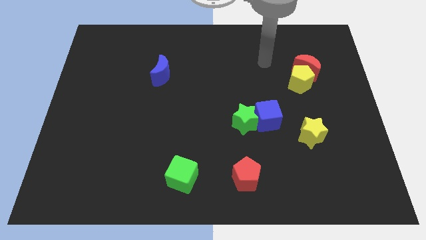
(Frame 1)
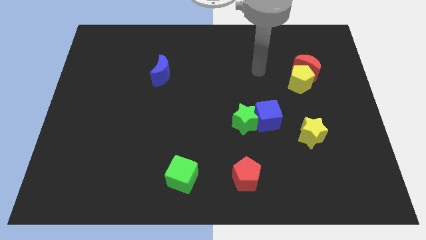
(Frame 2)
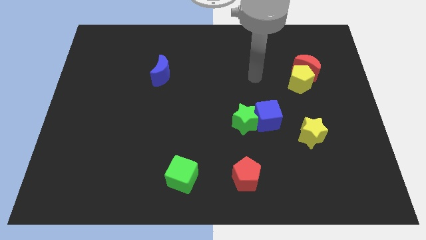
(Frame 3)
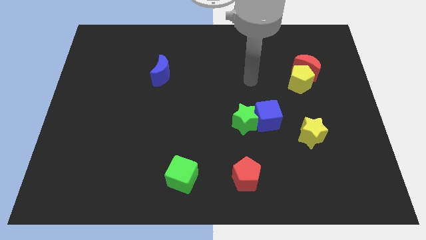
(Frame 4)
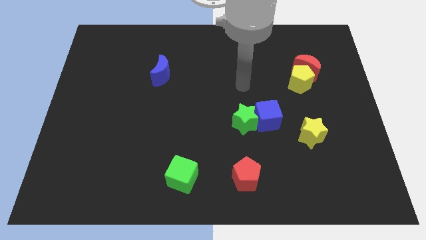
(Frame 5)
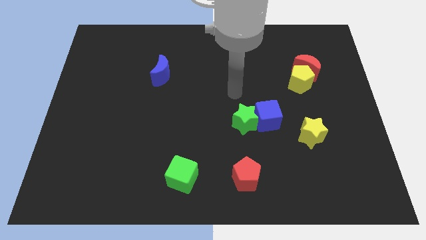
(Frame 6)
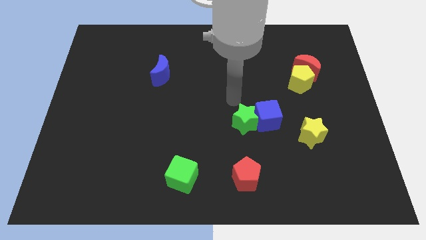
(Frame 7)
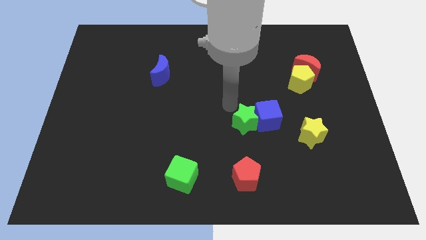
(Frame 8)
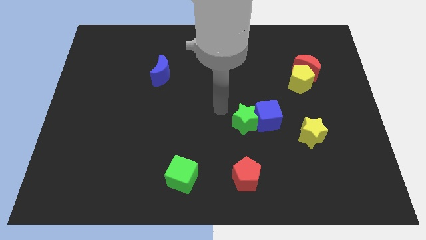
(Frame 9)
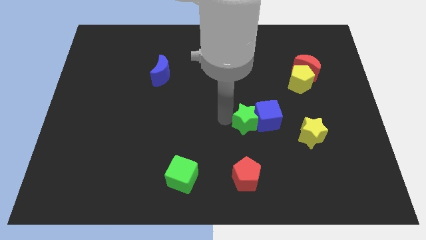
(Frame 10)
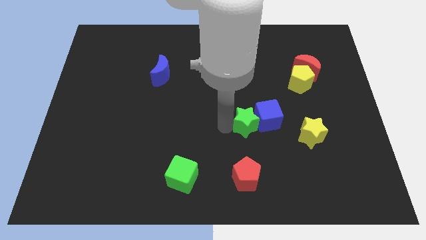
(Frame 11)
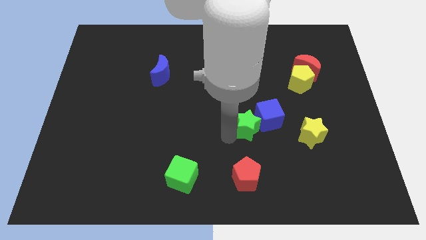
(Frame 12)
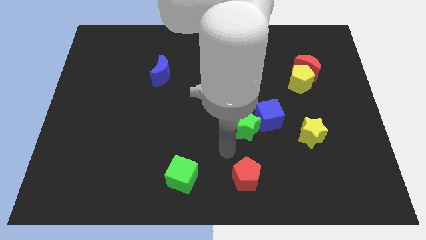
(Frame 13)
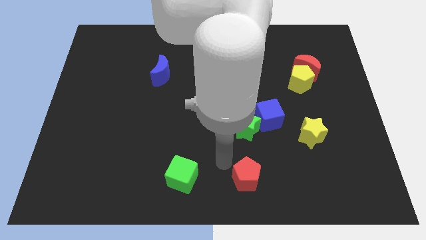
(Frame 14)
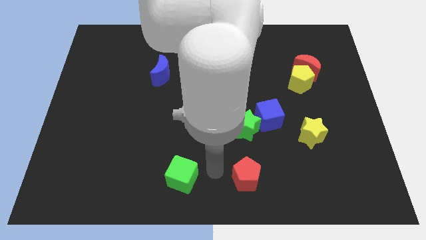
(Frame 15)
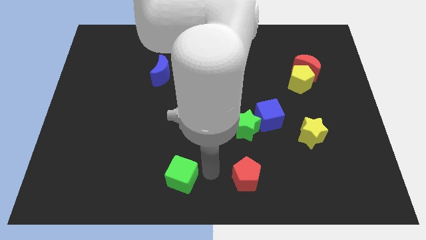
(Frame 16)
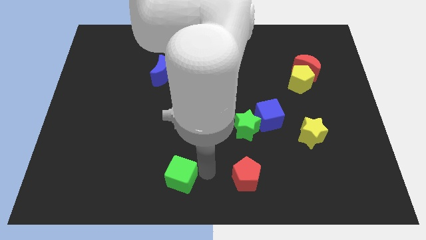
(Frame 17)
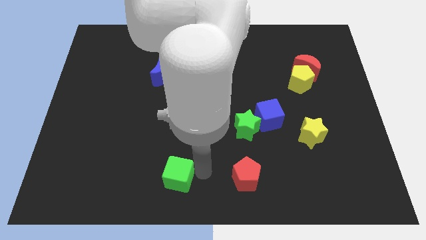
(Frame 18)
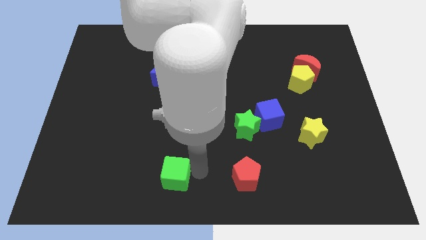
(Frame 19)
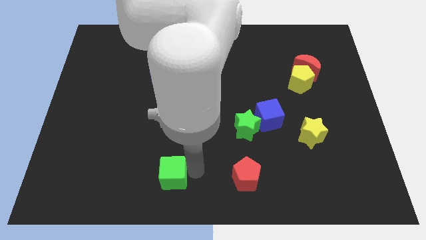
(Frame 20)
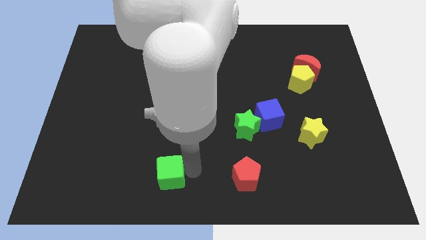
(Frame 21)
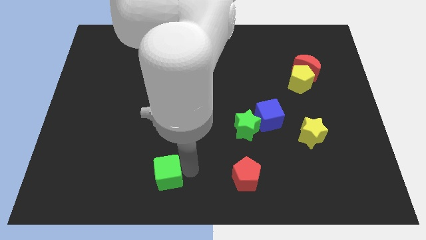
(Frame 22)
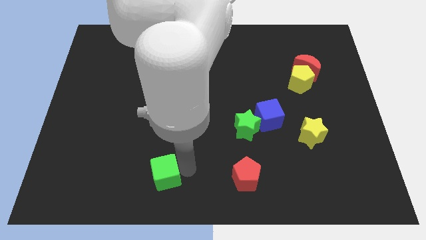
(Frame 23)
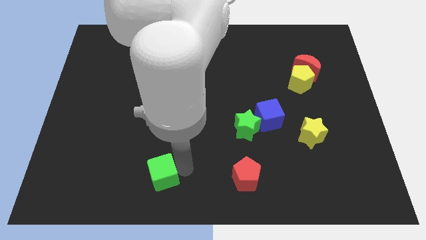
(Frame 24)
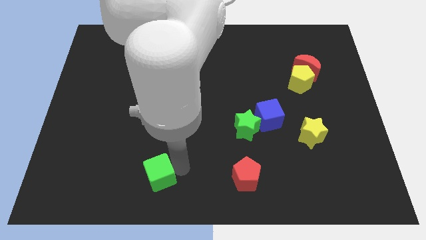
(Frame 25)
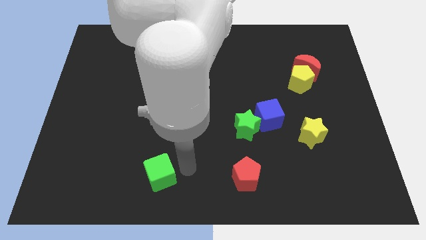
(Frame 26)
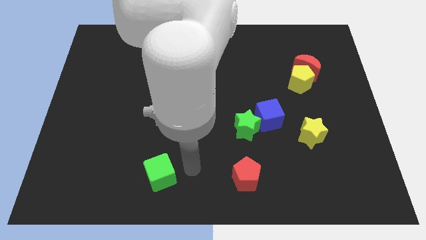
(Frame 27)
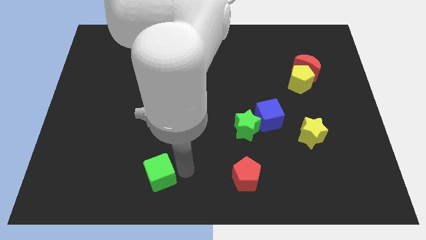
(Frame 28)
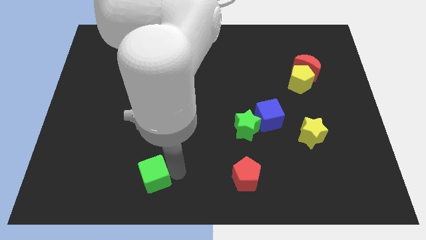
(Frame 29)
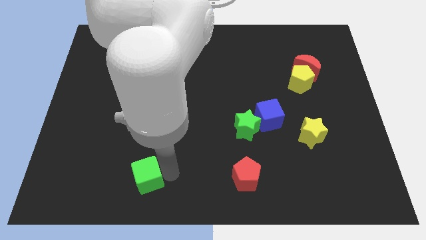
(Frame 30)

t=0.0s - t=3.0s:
move the green cube to the left a little

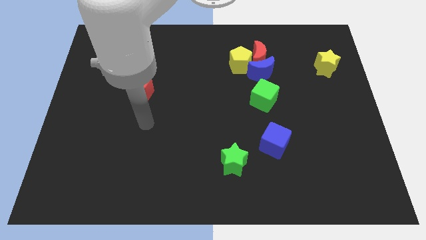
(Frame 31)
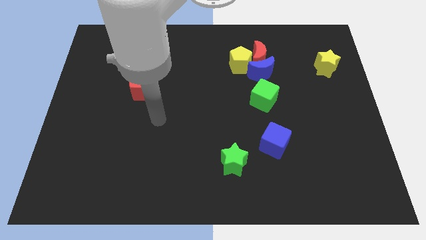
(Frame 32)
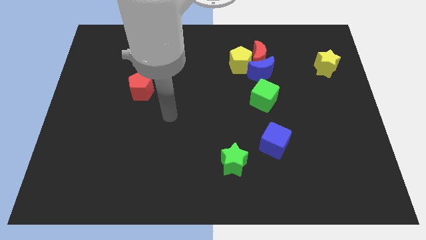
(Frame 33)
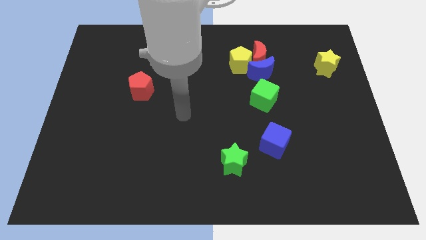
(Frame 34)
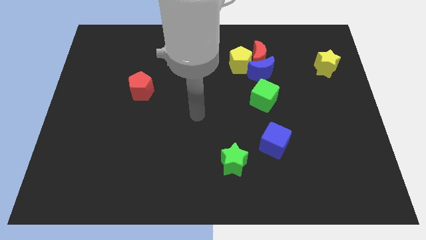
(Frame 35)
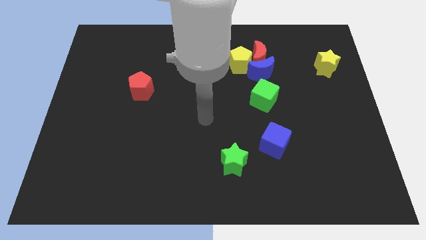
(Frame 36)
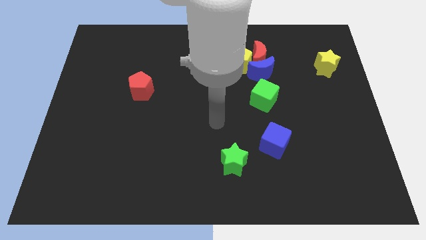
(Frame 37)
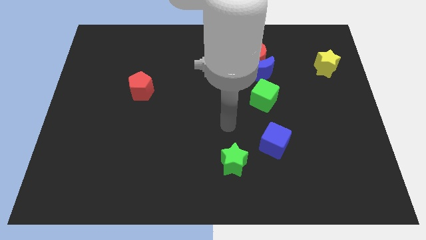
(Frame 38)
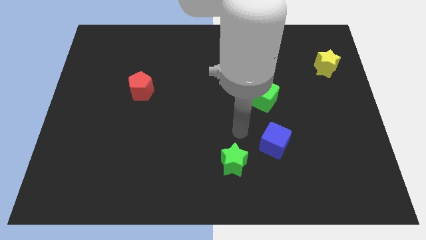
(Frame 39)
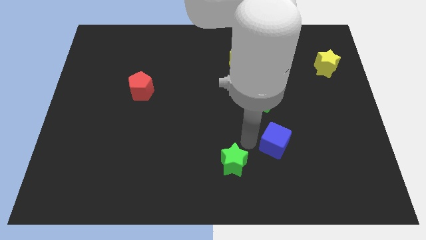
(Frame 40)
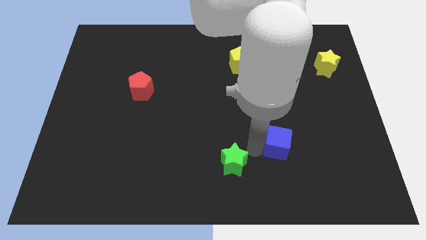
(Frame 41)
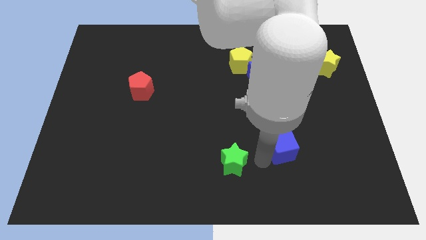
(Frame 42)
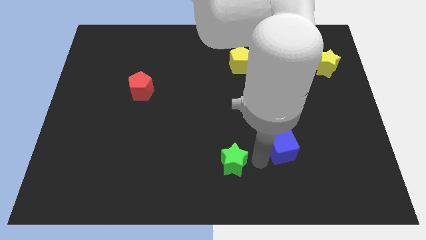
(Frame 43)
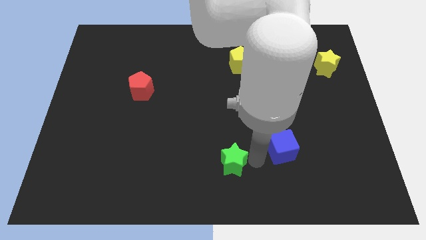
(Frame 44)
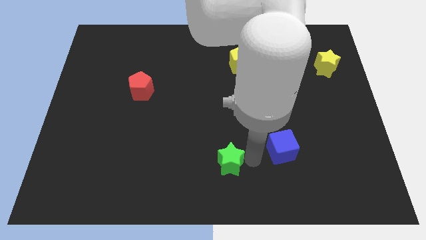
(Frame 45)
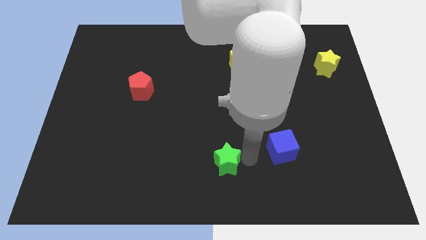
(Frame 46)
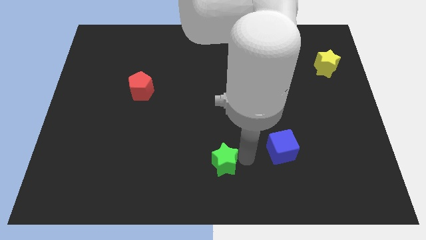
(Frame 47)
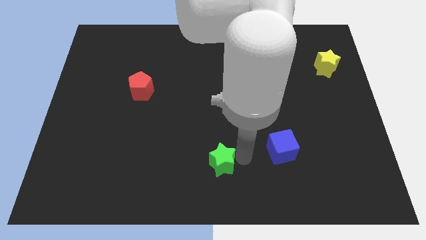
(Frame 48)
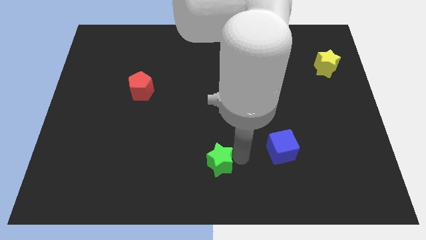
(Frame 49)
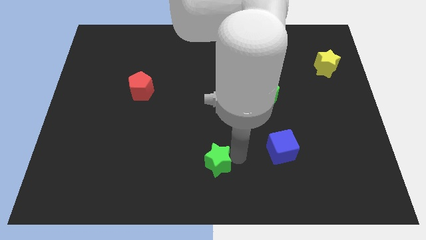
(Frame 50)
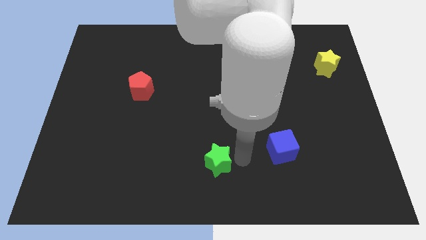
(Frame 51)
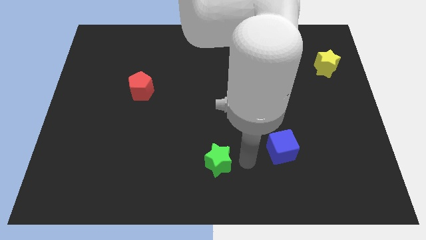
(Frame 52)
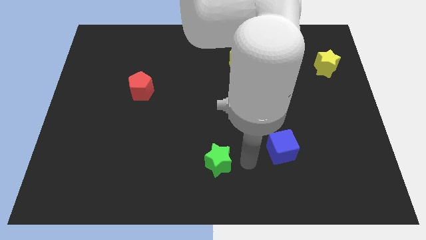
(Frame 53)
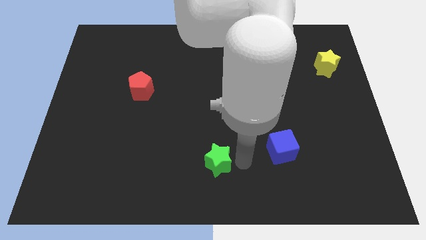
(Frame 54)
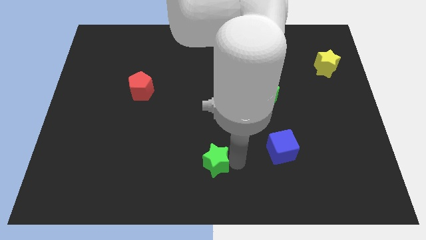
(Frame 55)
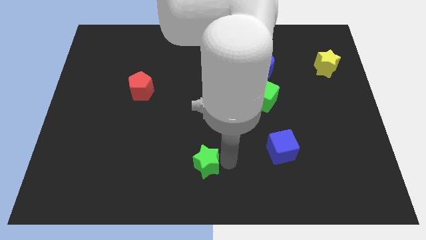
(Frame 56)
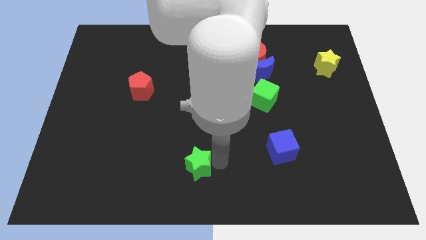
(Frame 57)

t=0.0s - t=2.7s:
slide the green star left slightly

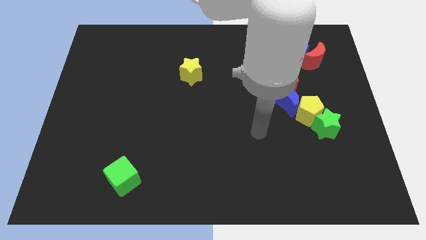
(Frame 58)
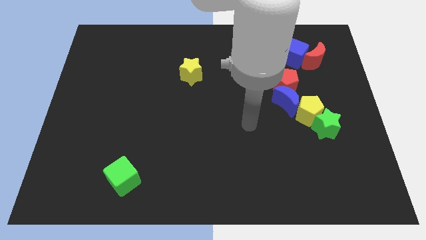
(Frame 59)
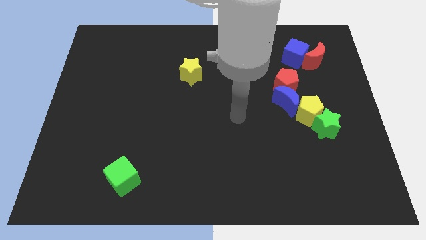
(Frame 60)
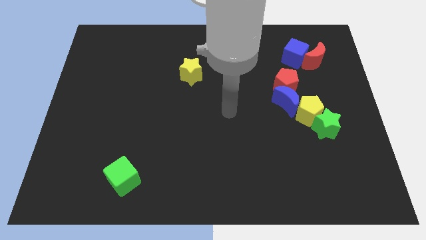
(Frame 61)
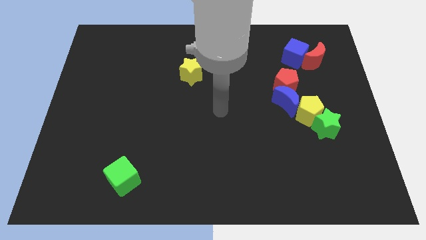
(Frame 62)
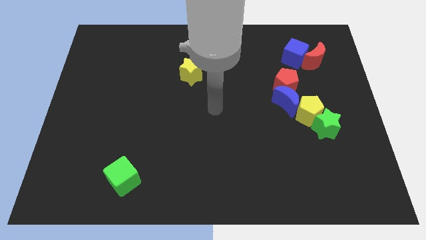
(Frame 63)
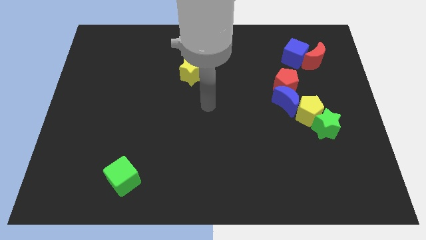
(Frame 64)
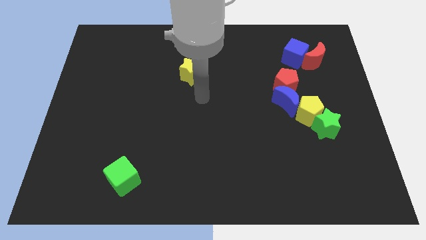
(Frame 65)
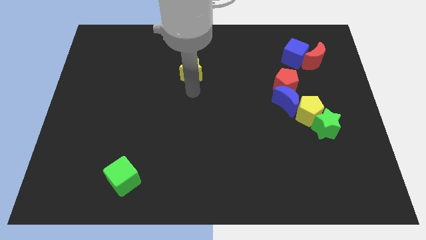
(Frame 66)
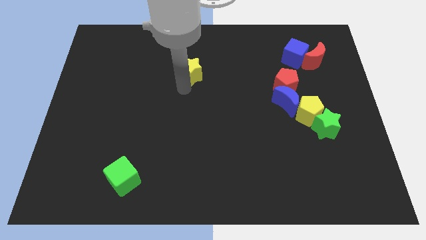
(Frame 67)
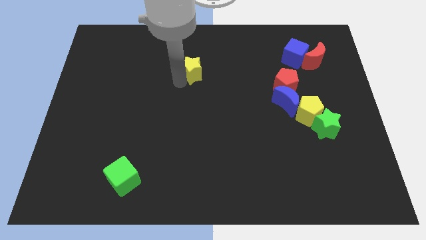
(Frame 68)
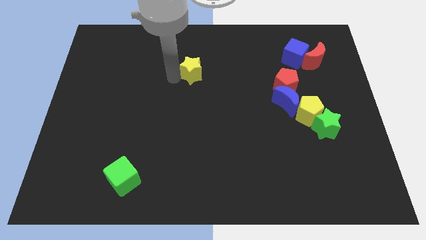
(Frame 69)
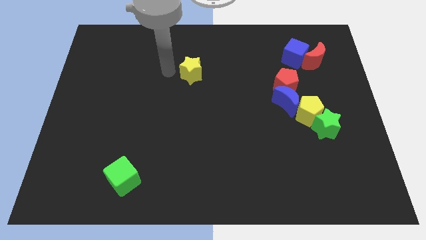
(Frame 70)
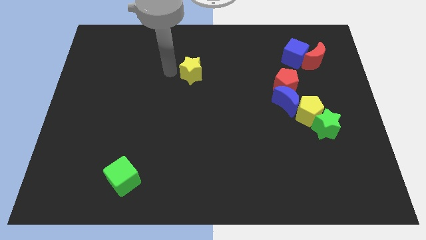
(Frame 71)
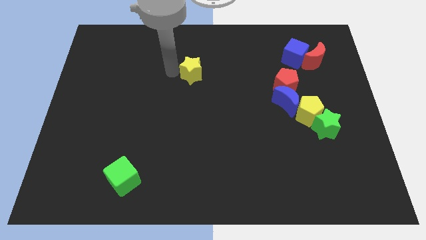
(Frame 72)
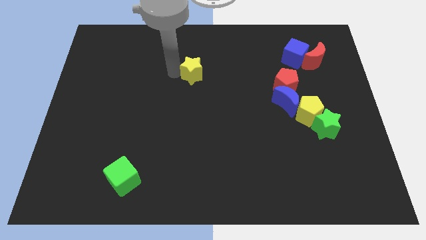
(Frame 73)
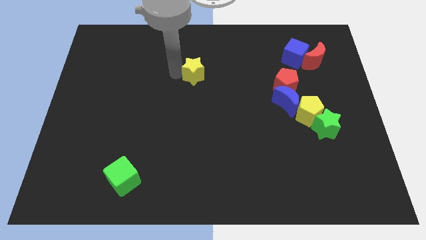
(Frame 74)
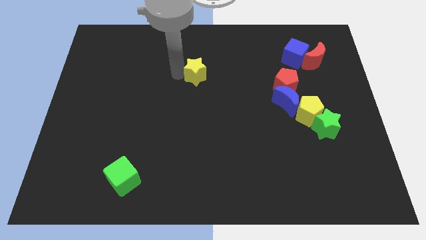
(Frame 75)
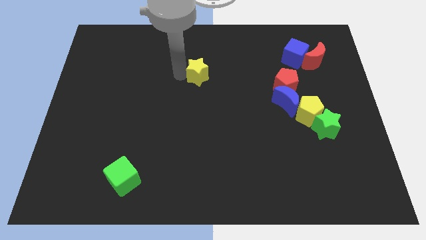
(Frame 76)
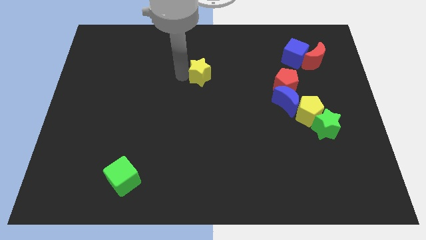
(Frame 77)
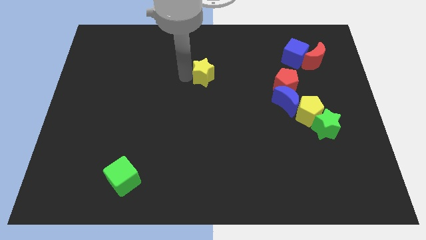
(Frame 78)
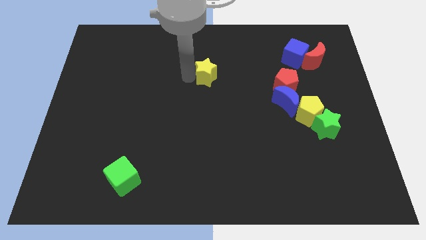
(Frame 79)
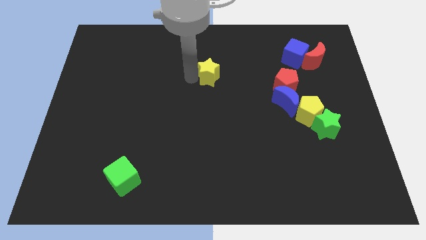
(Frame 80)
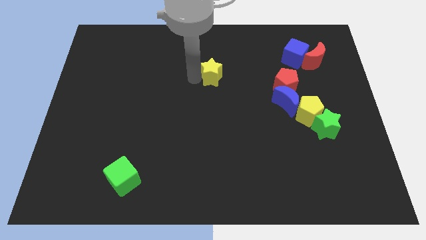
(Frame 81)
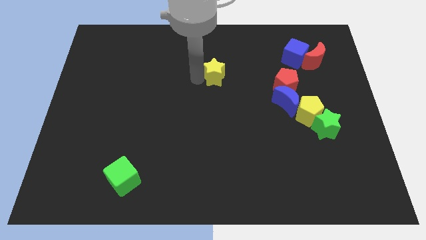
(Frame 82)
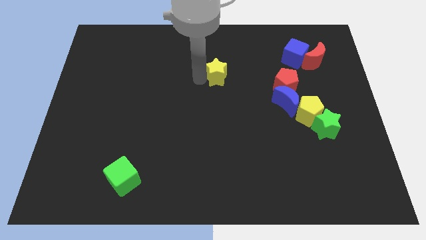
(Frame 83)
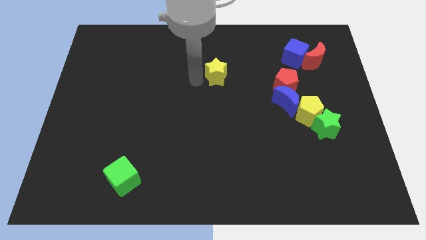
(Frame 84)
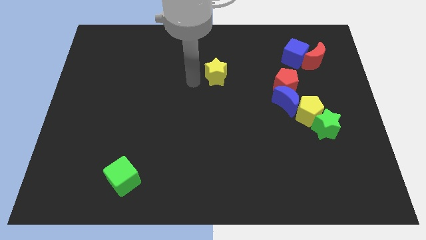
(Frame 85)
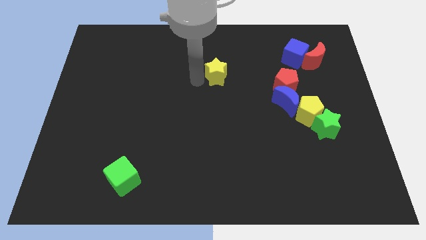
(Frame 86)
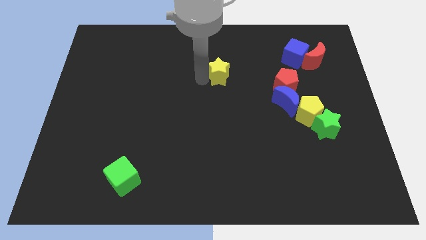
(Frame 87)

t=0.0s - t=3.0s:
push the yellow star somewhat to the right
